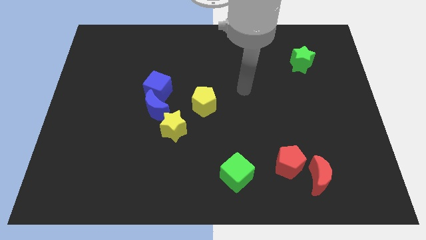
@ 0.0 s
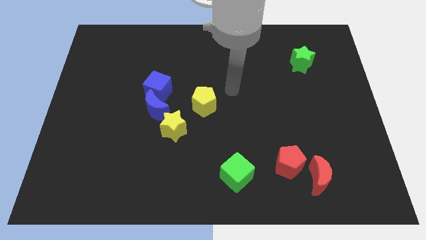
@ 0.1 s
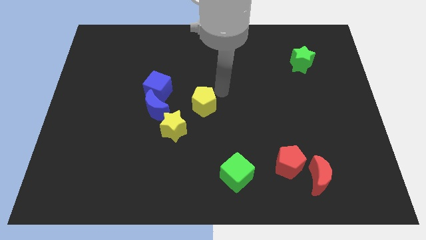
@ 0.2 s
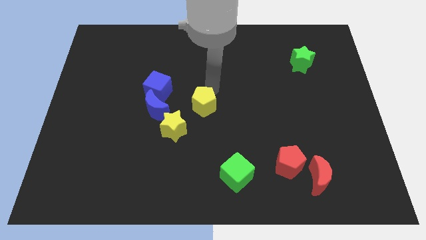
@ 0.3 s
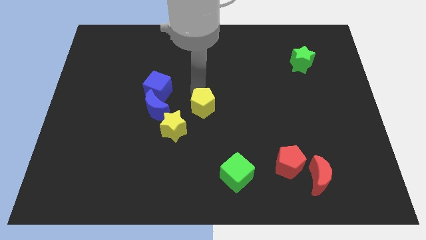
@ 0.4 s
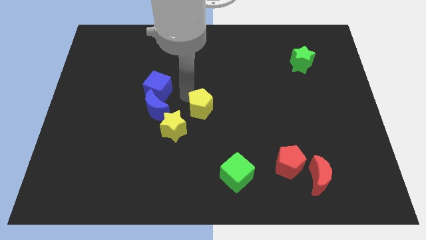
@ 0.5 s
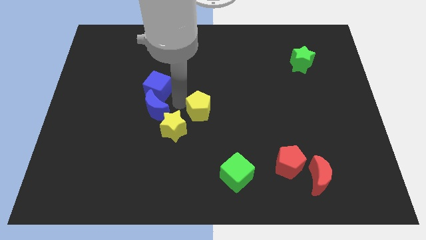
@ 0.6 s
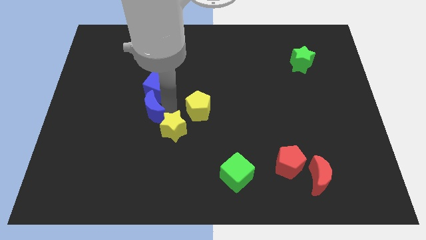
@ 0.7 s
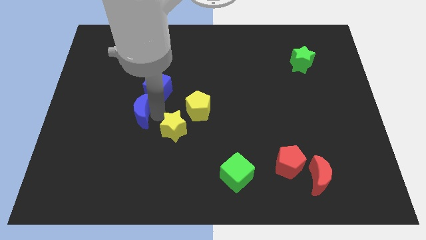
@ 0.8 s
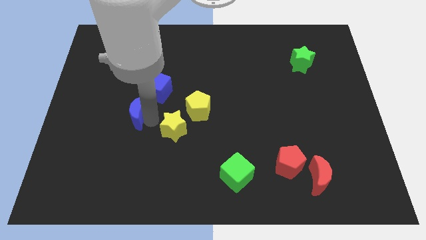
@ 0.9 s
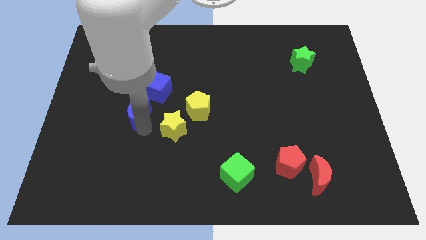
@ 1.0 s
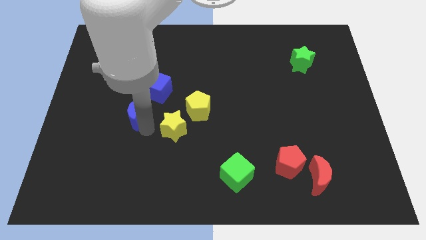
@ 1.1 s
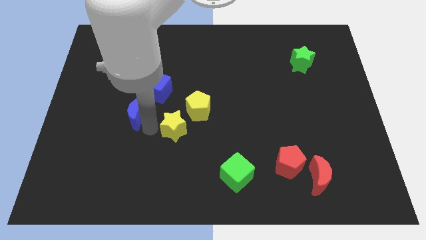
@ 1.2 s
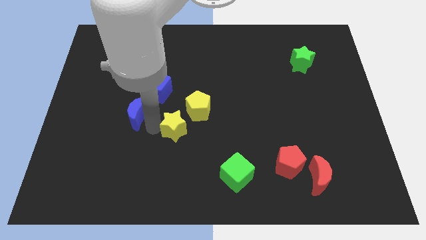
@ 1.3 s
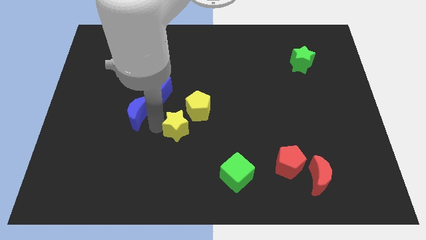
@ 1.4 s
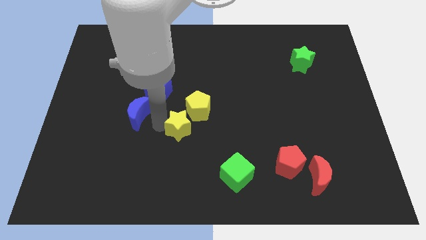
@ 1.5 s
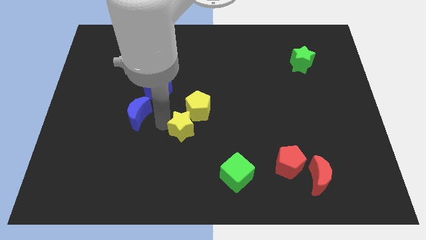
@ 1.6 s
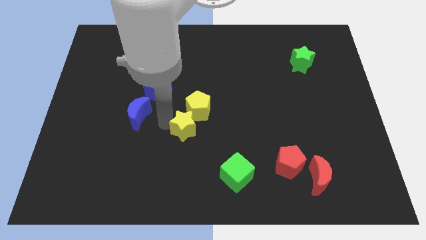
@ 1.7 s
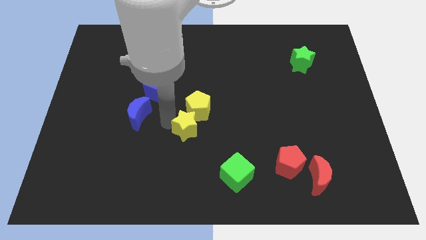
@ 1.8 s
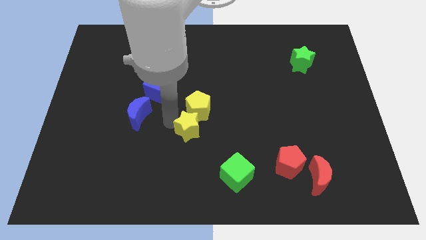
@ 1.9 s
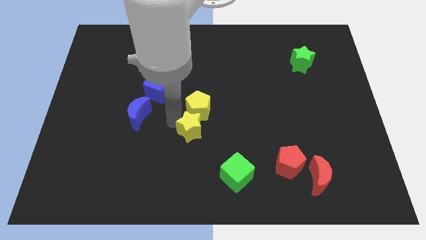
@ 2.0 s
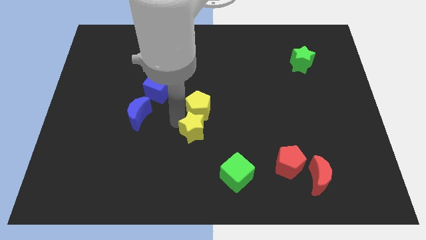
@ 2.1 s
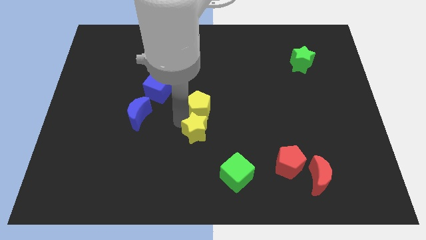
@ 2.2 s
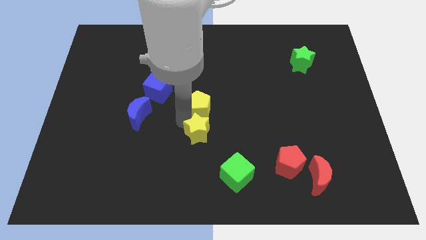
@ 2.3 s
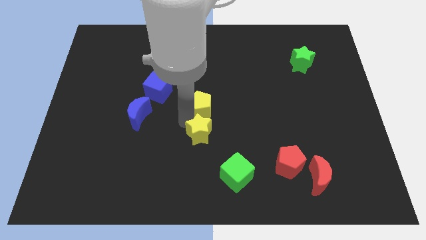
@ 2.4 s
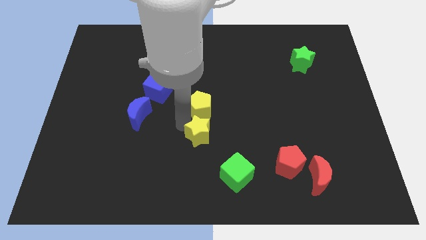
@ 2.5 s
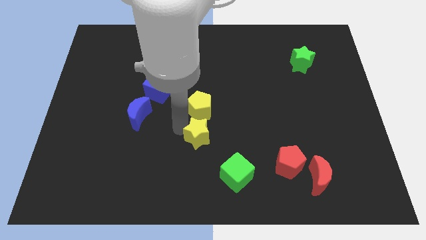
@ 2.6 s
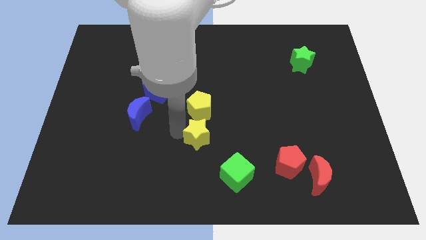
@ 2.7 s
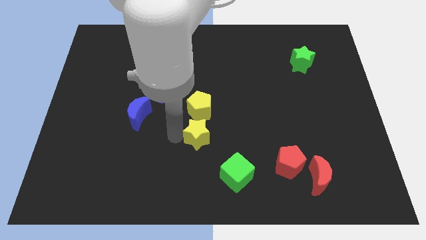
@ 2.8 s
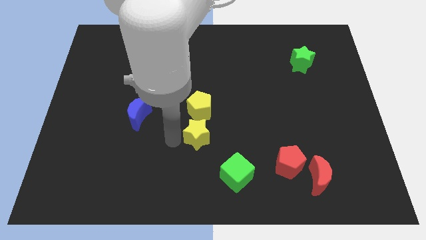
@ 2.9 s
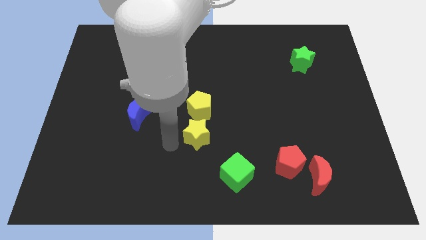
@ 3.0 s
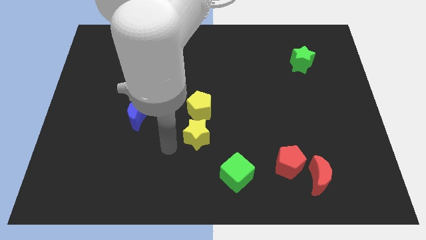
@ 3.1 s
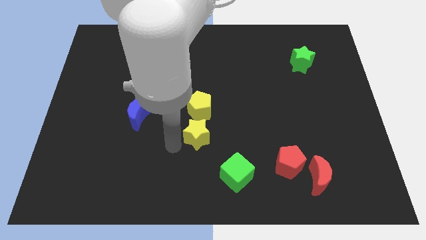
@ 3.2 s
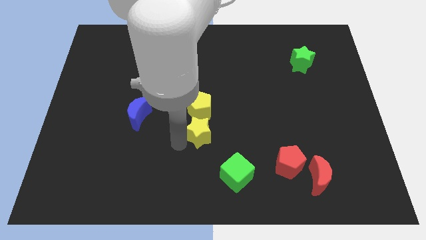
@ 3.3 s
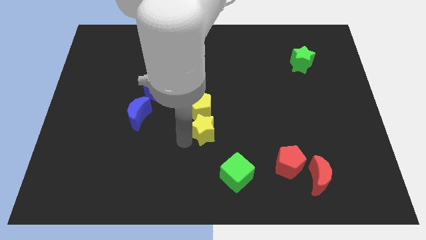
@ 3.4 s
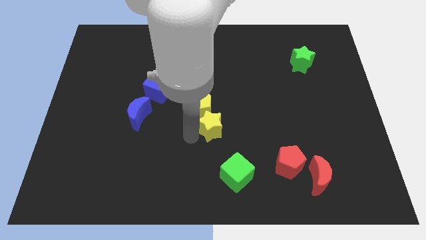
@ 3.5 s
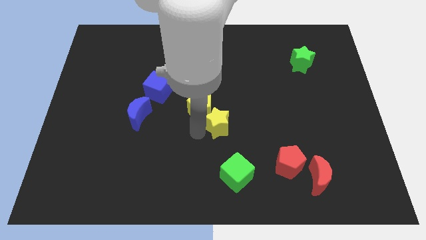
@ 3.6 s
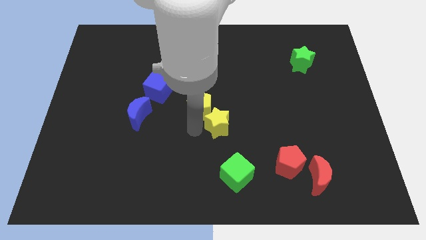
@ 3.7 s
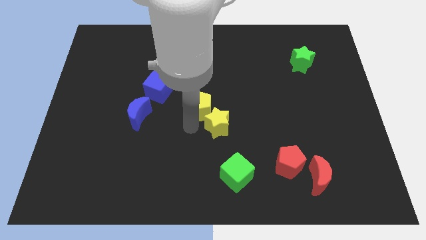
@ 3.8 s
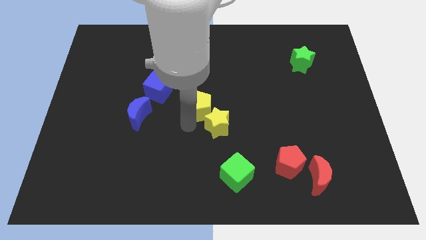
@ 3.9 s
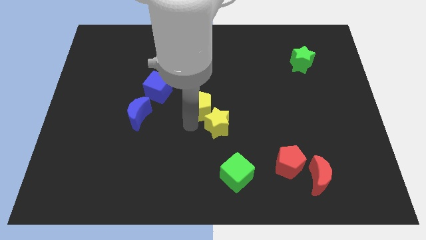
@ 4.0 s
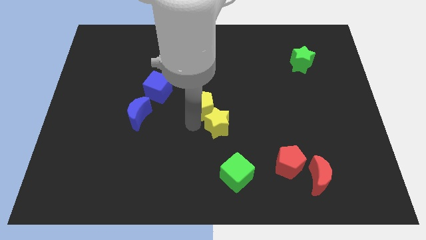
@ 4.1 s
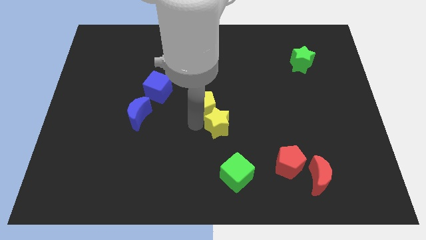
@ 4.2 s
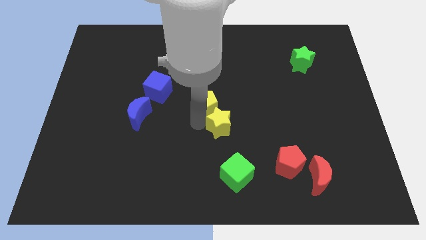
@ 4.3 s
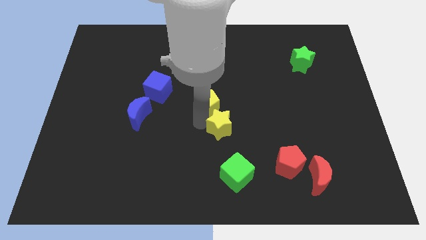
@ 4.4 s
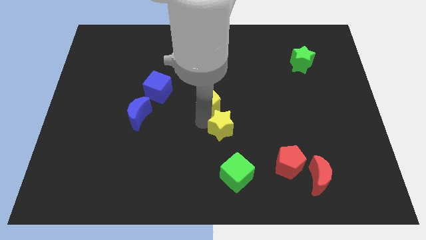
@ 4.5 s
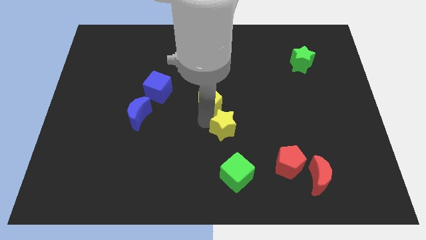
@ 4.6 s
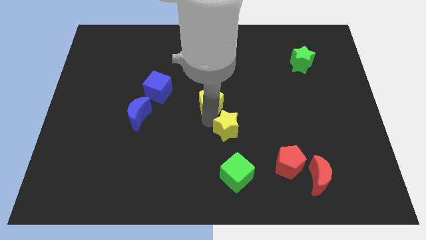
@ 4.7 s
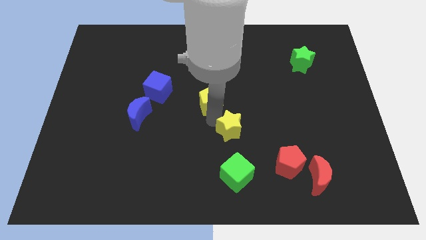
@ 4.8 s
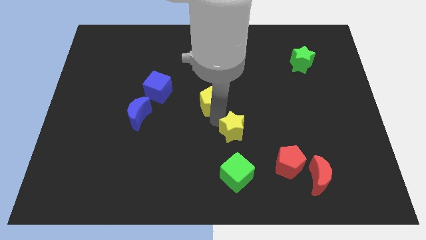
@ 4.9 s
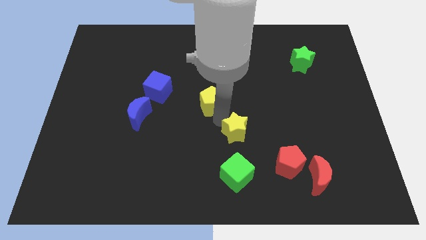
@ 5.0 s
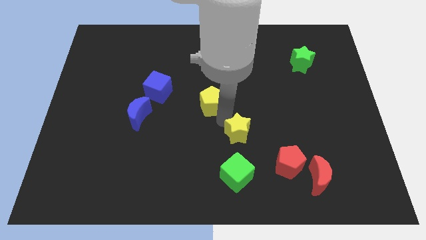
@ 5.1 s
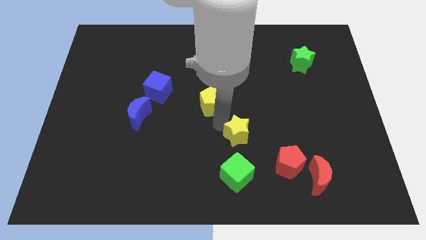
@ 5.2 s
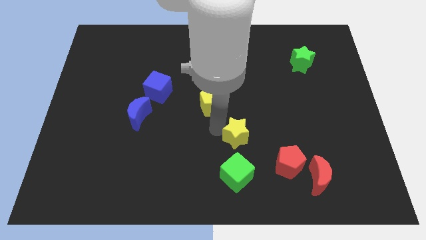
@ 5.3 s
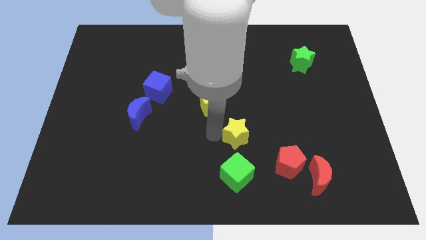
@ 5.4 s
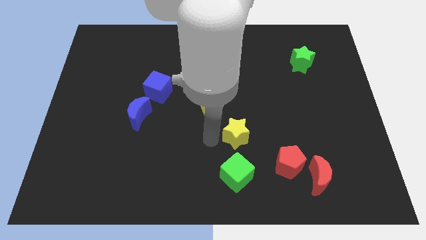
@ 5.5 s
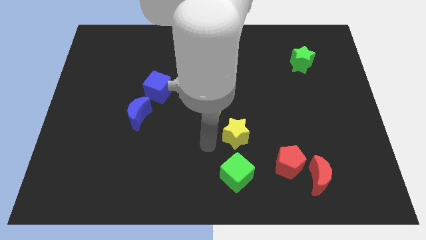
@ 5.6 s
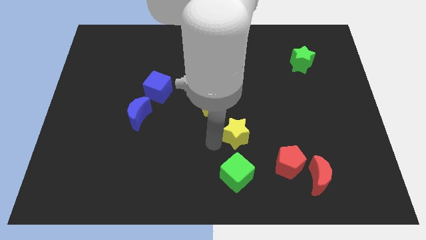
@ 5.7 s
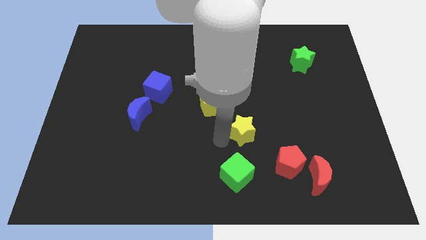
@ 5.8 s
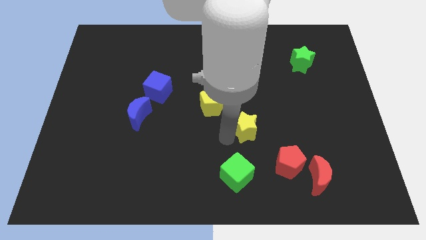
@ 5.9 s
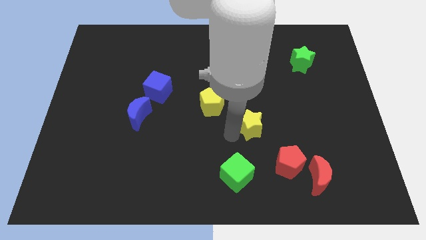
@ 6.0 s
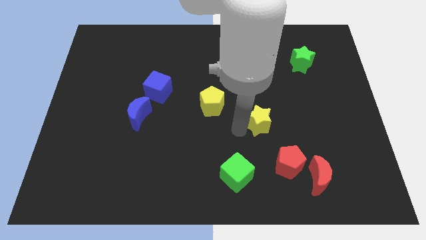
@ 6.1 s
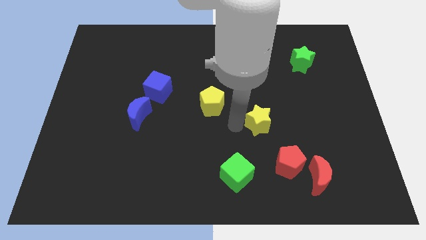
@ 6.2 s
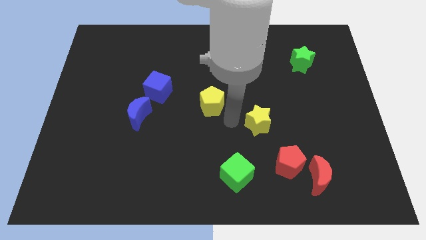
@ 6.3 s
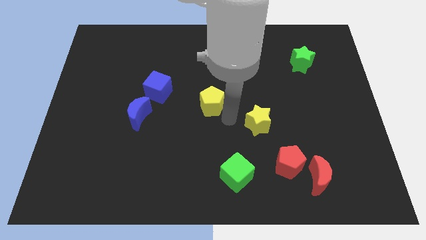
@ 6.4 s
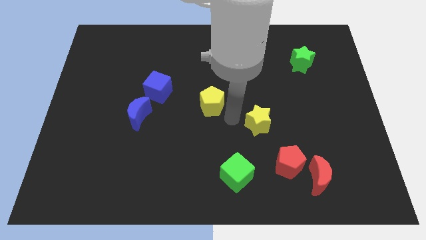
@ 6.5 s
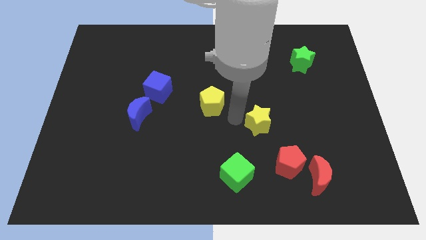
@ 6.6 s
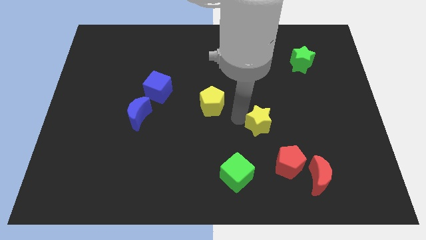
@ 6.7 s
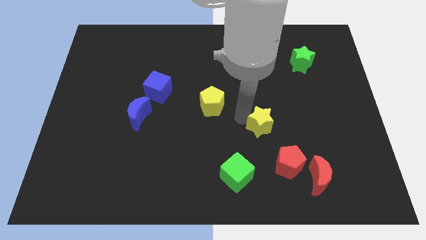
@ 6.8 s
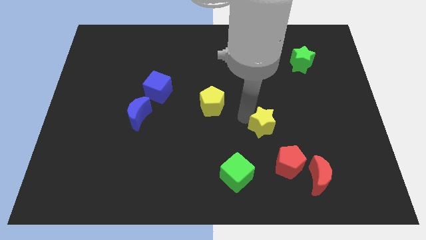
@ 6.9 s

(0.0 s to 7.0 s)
slide the yellow star right

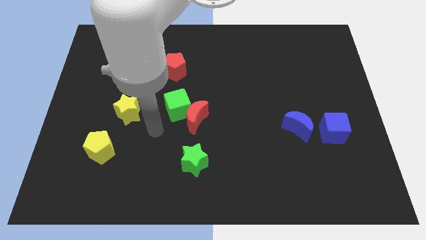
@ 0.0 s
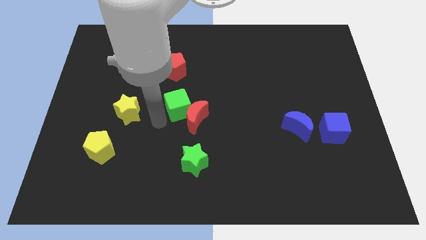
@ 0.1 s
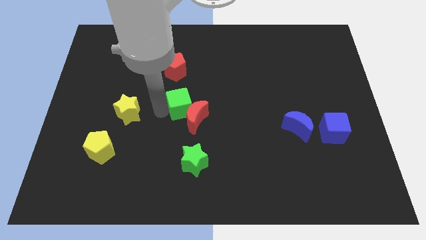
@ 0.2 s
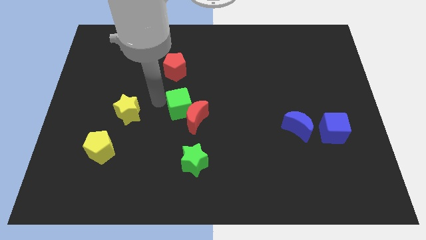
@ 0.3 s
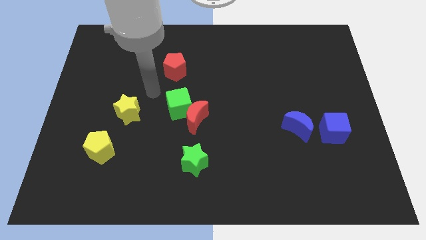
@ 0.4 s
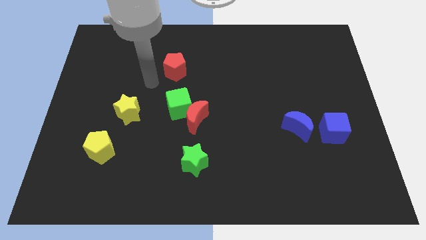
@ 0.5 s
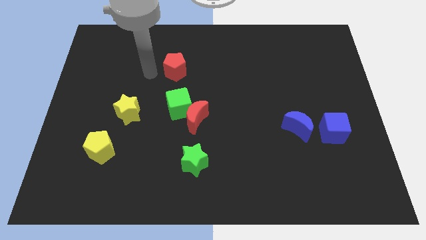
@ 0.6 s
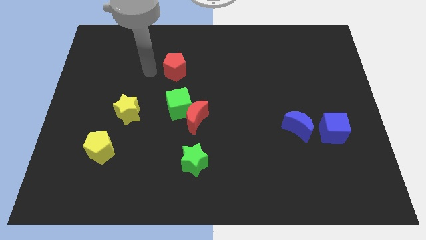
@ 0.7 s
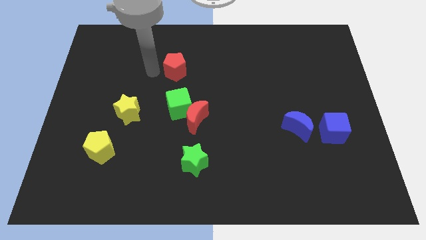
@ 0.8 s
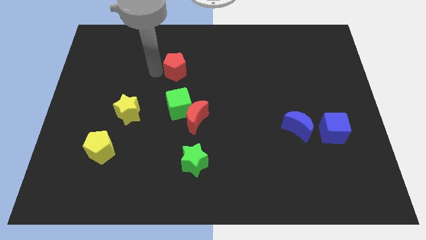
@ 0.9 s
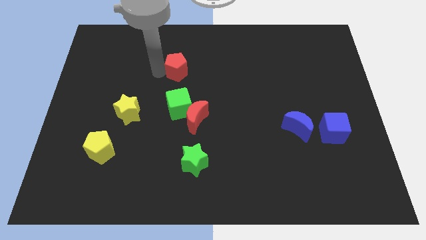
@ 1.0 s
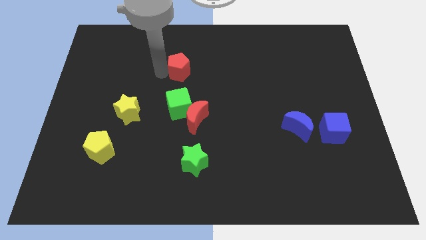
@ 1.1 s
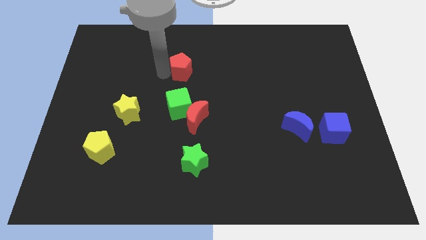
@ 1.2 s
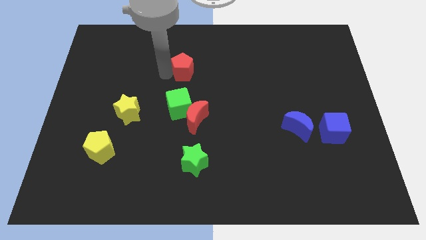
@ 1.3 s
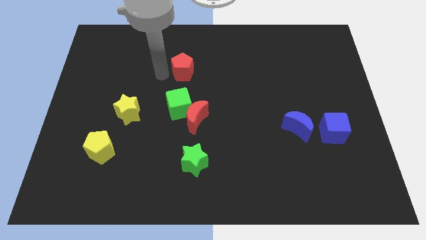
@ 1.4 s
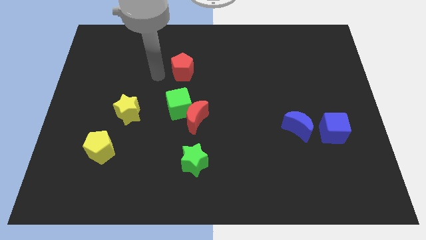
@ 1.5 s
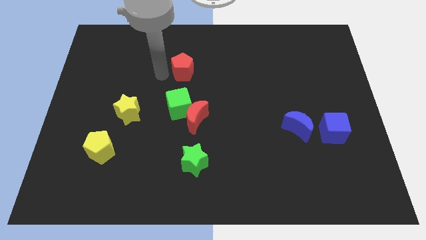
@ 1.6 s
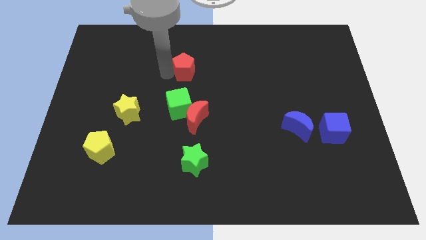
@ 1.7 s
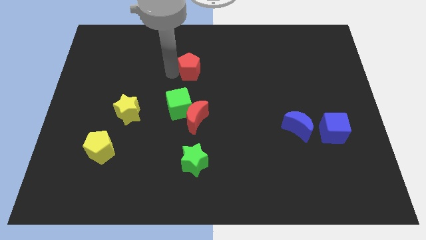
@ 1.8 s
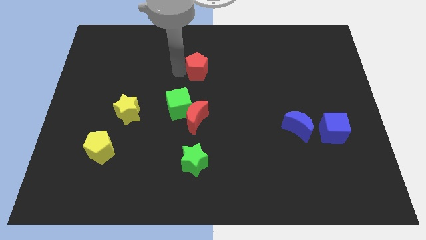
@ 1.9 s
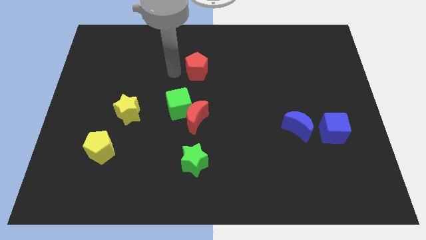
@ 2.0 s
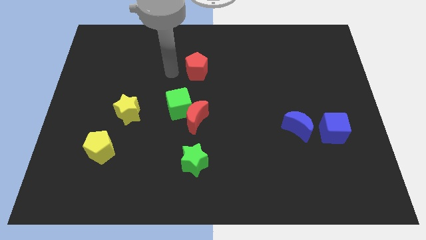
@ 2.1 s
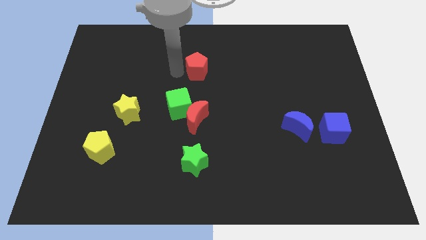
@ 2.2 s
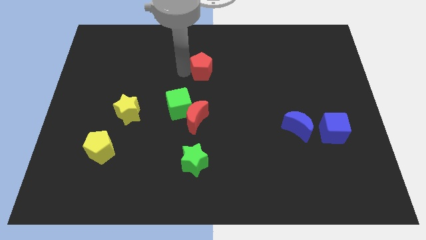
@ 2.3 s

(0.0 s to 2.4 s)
slide the red pentagon right a little bit
